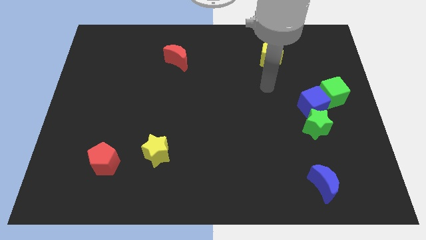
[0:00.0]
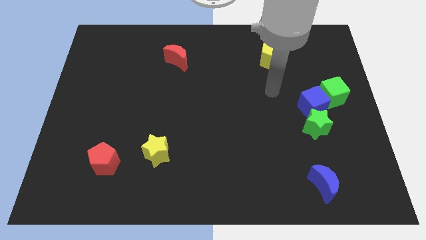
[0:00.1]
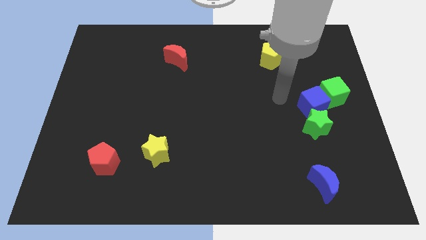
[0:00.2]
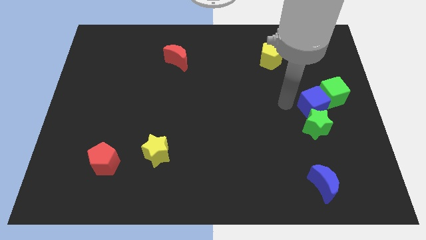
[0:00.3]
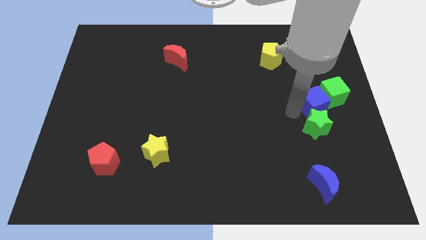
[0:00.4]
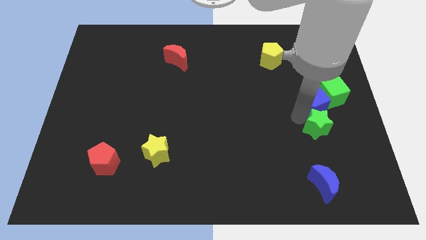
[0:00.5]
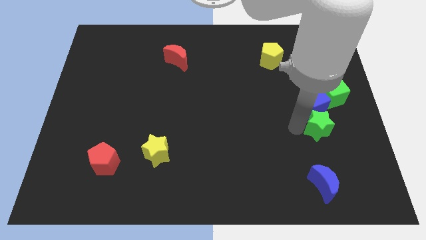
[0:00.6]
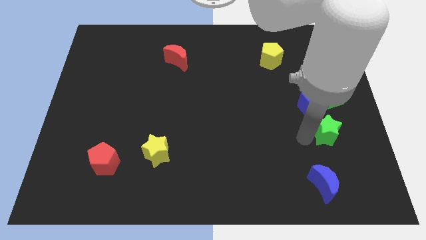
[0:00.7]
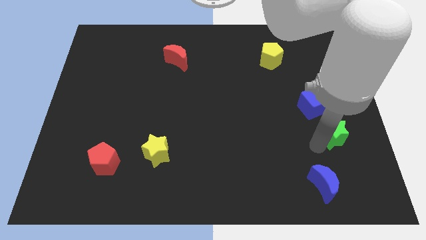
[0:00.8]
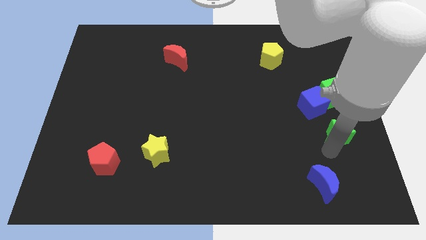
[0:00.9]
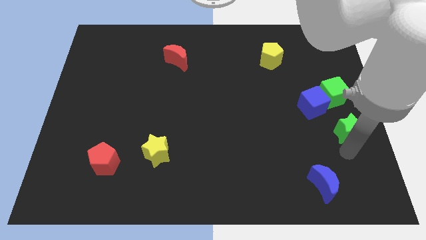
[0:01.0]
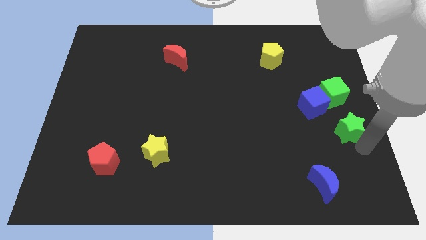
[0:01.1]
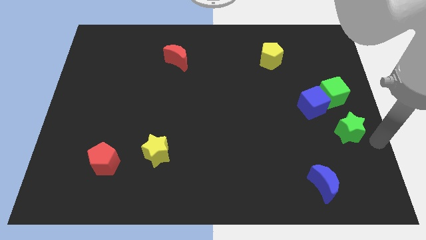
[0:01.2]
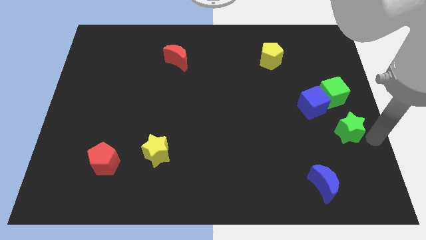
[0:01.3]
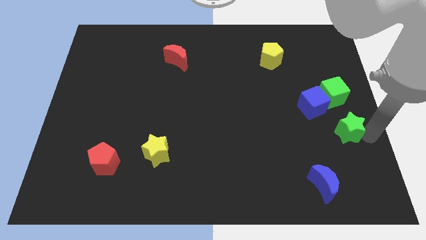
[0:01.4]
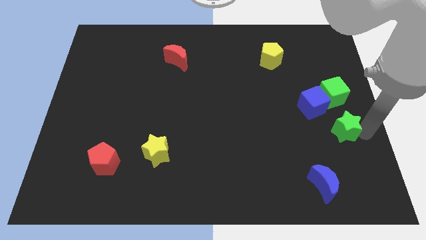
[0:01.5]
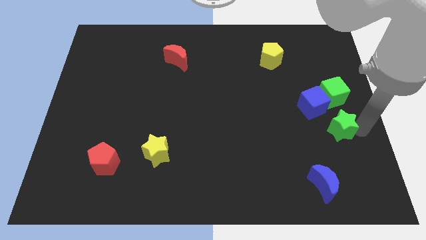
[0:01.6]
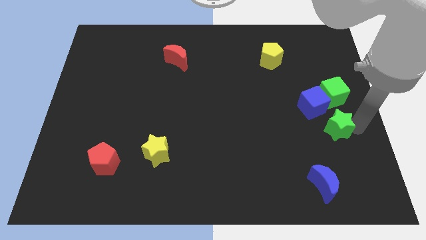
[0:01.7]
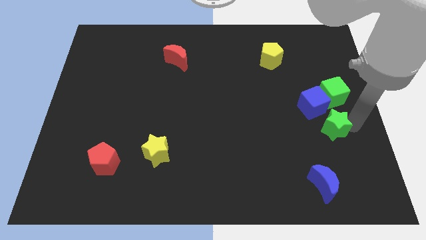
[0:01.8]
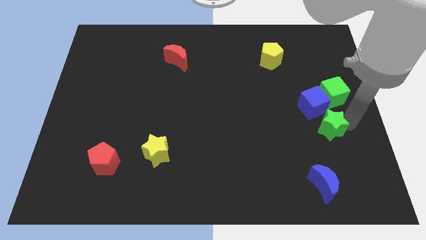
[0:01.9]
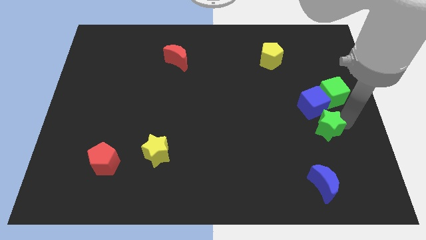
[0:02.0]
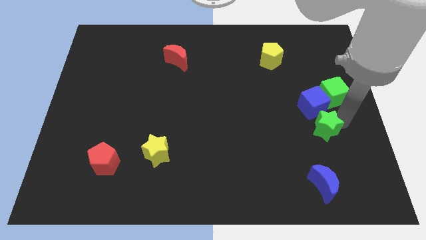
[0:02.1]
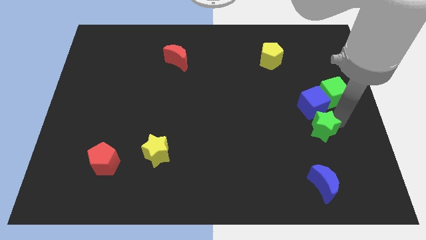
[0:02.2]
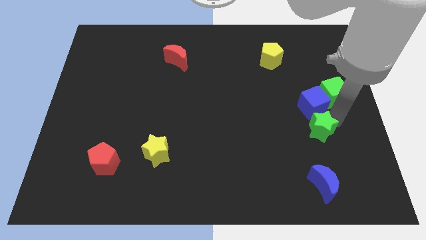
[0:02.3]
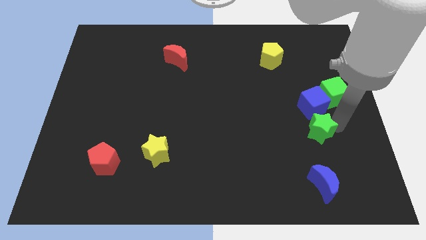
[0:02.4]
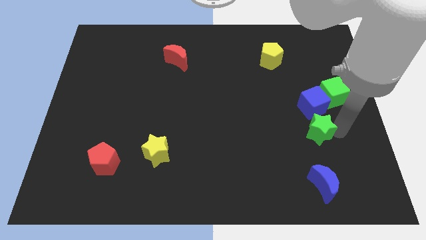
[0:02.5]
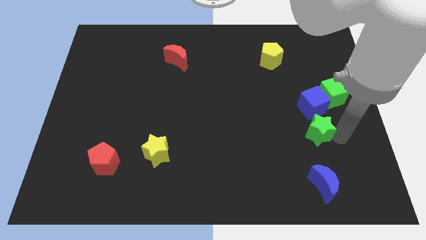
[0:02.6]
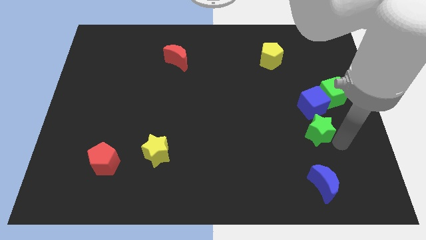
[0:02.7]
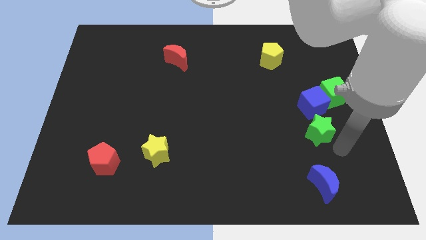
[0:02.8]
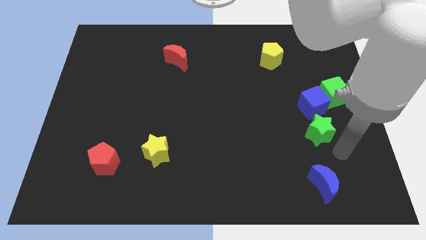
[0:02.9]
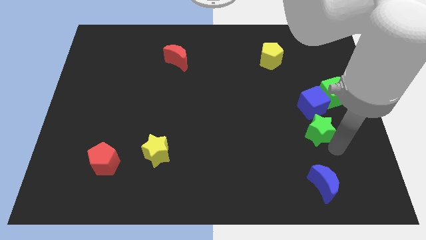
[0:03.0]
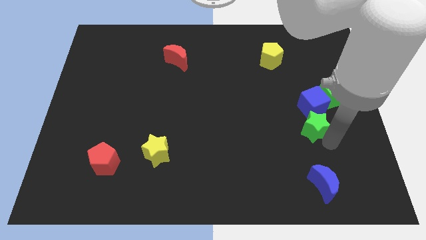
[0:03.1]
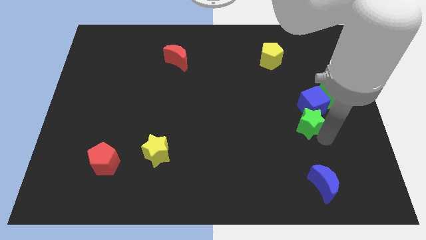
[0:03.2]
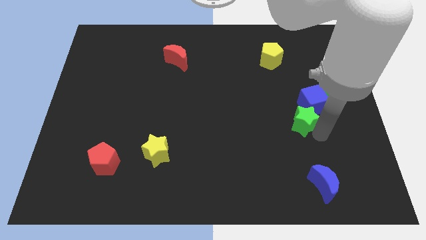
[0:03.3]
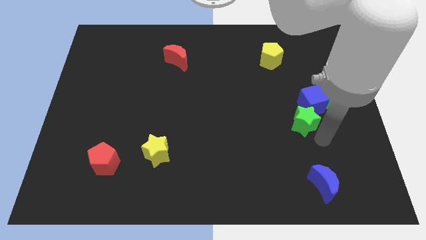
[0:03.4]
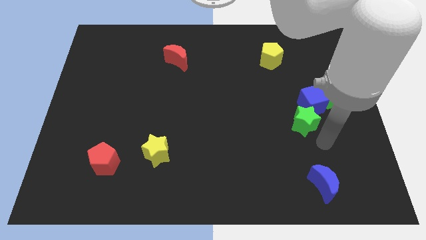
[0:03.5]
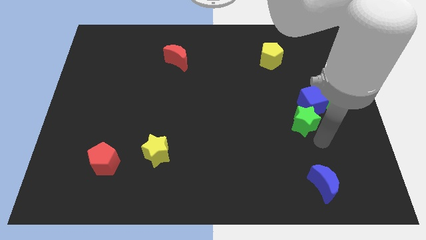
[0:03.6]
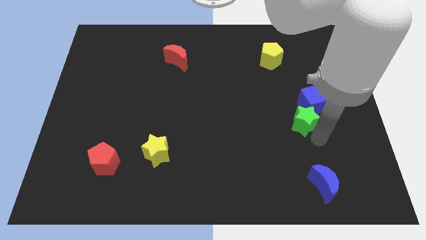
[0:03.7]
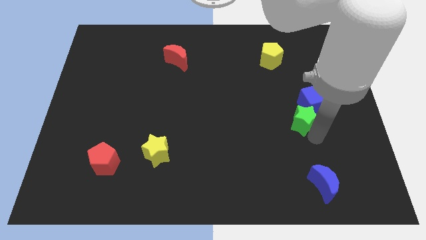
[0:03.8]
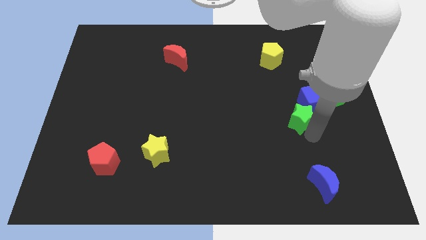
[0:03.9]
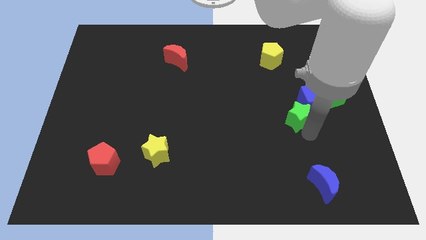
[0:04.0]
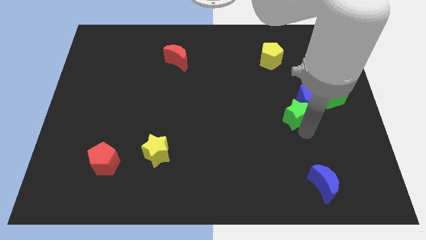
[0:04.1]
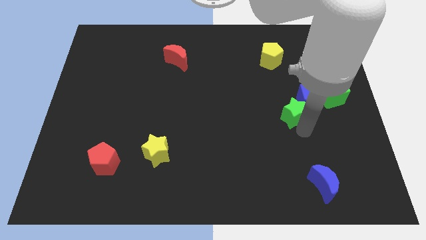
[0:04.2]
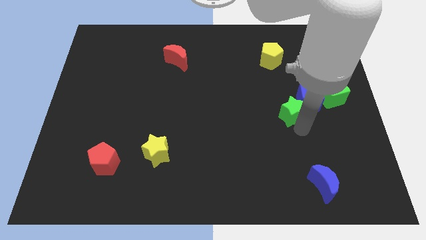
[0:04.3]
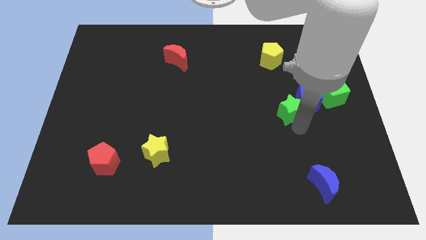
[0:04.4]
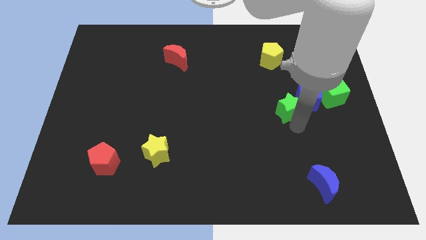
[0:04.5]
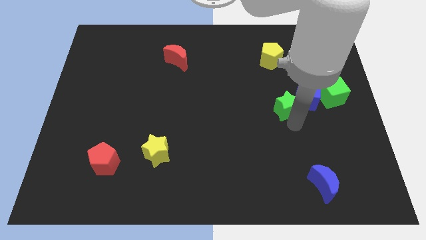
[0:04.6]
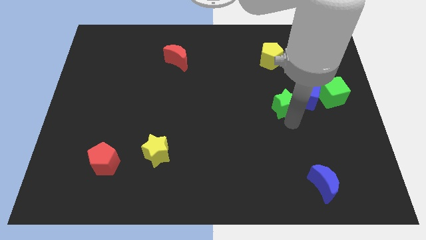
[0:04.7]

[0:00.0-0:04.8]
put the green star below the yellow pentagon

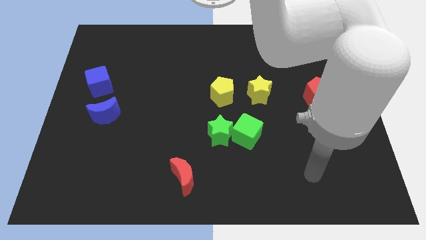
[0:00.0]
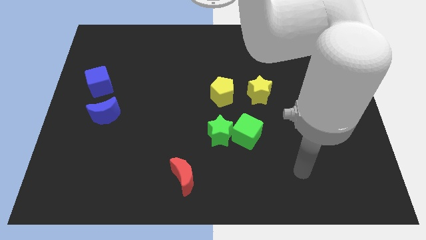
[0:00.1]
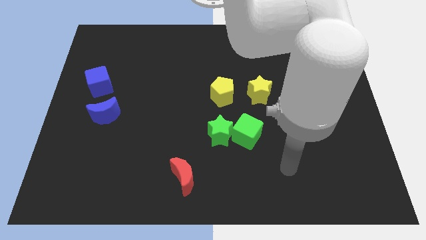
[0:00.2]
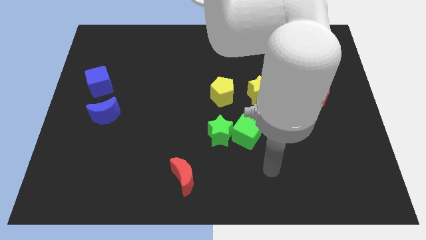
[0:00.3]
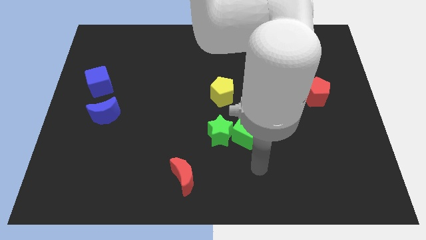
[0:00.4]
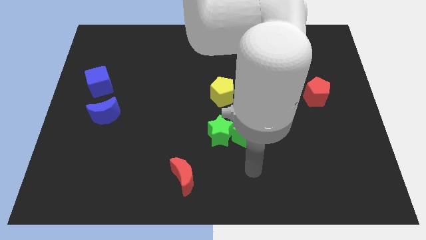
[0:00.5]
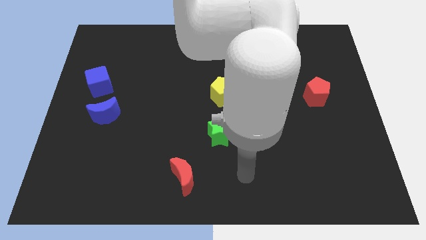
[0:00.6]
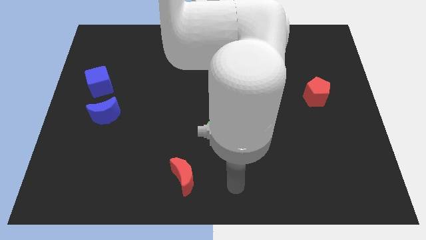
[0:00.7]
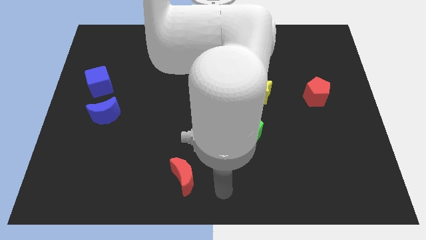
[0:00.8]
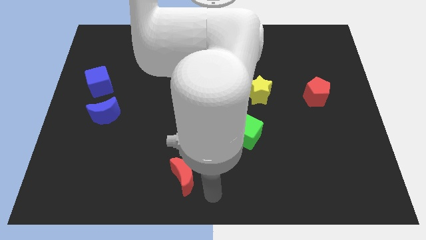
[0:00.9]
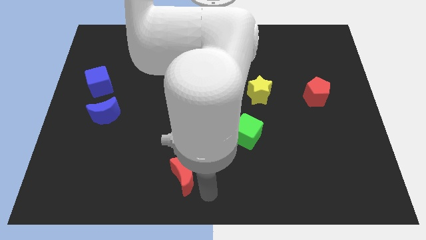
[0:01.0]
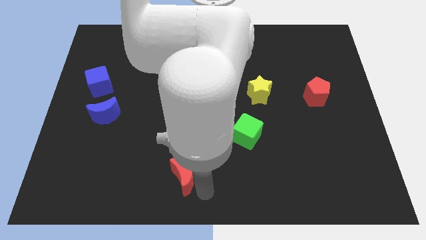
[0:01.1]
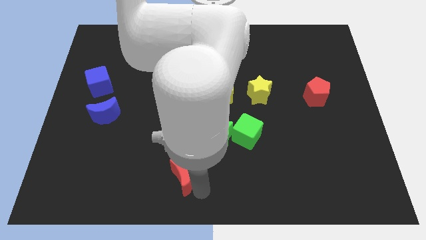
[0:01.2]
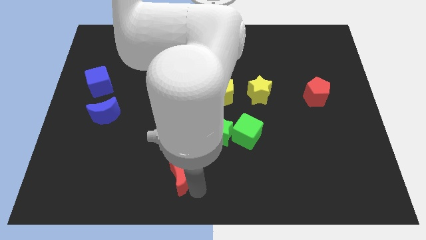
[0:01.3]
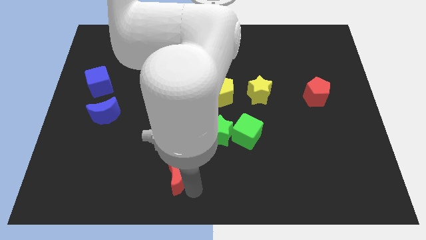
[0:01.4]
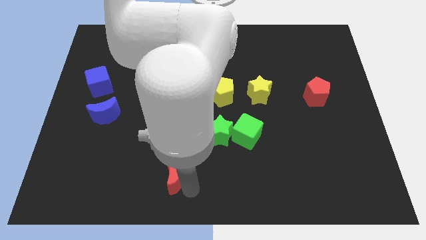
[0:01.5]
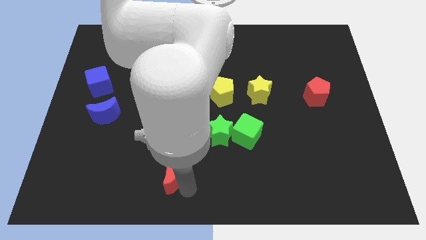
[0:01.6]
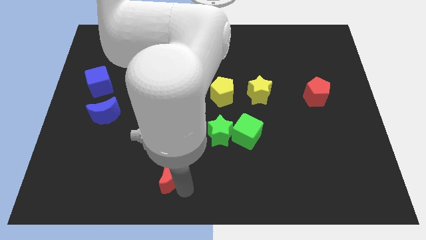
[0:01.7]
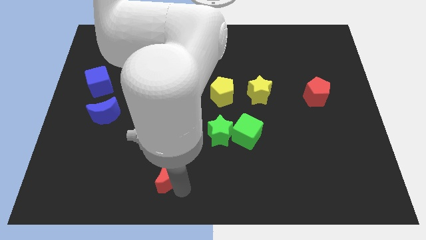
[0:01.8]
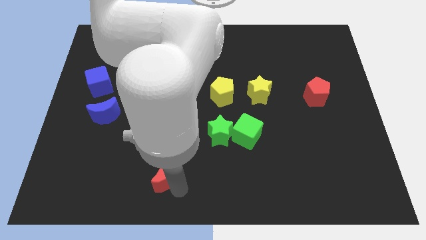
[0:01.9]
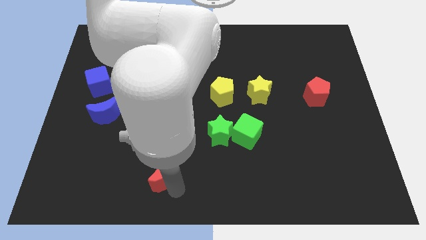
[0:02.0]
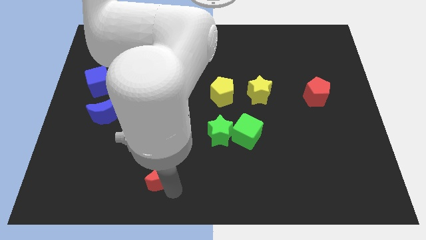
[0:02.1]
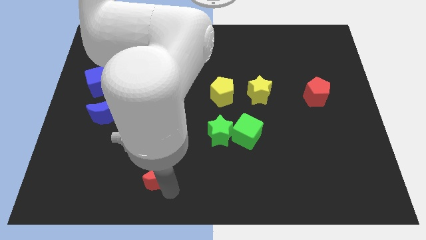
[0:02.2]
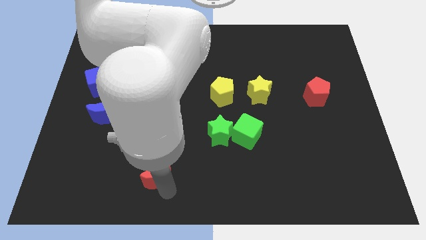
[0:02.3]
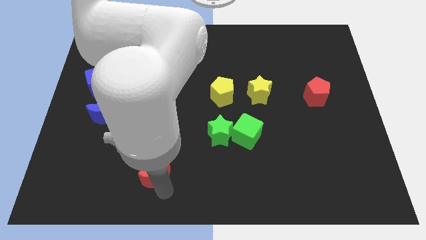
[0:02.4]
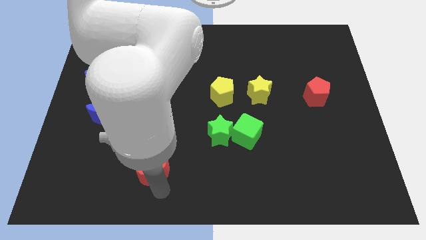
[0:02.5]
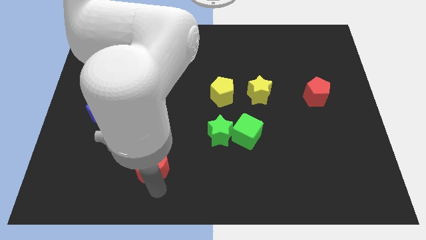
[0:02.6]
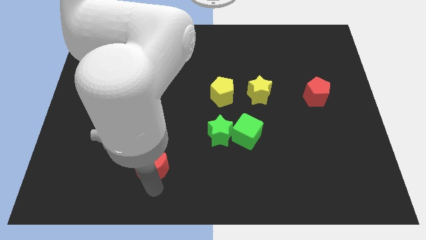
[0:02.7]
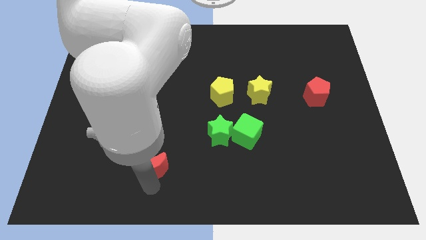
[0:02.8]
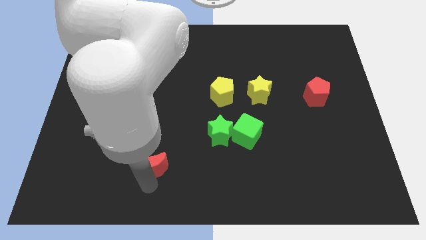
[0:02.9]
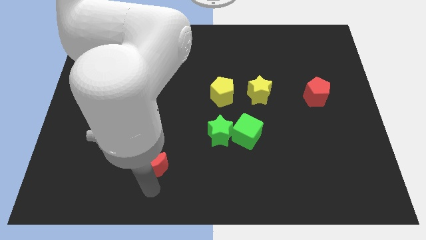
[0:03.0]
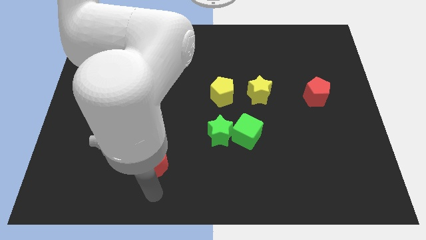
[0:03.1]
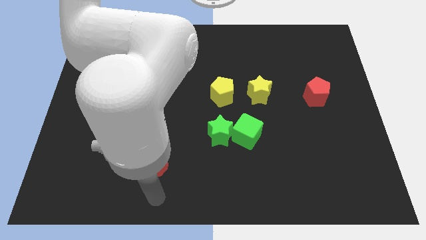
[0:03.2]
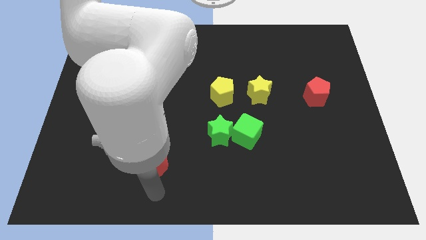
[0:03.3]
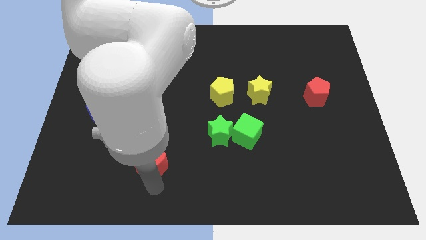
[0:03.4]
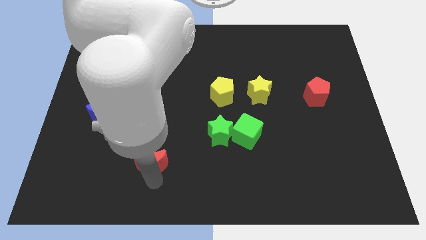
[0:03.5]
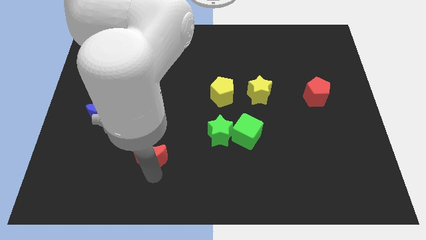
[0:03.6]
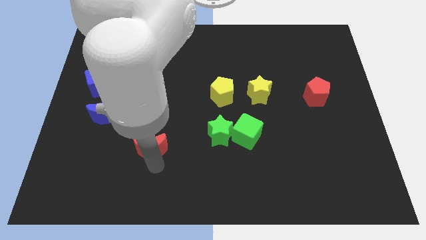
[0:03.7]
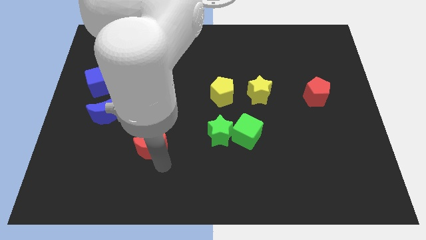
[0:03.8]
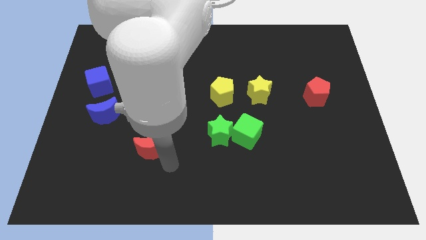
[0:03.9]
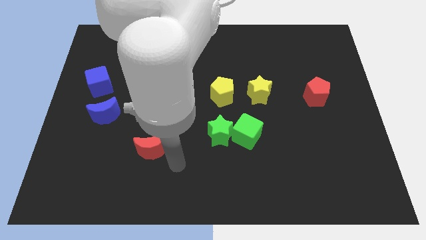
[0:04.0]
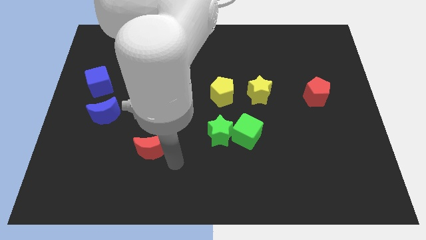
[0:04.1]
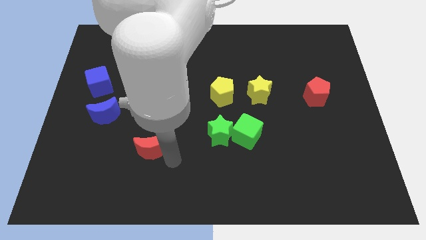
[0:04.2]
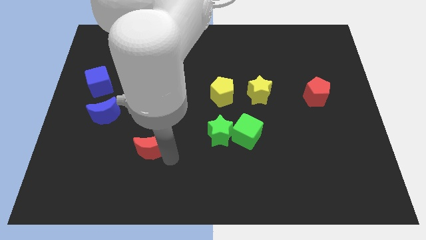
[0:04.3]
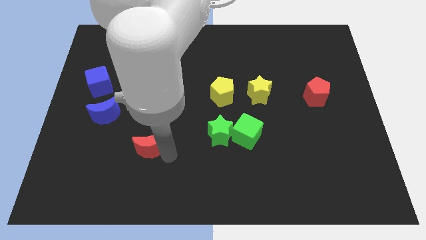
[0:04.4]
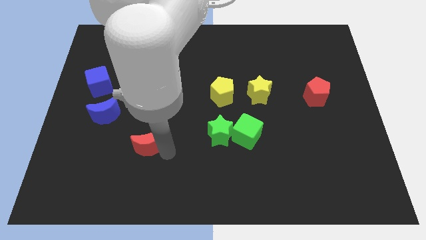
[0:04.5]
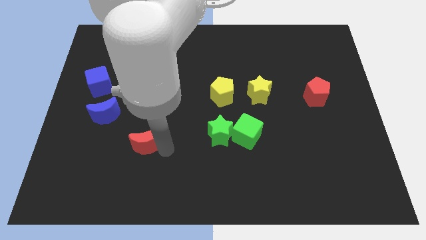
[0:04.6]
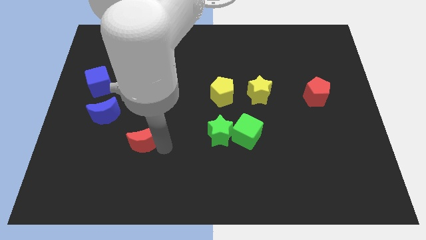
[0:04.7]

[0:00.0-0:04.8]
move the red moon diagonally down and to the right of the blue moon
